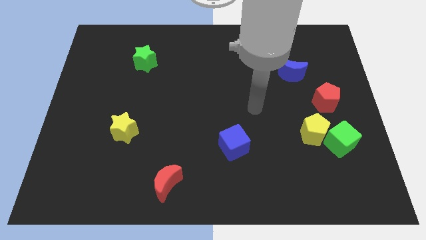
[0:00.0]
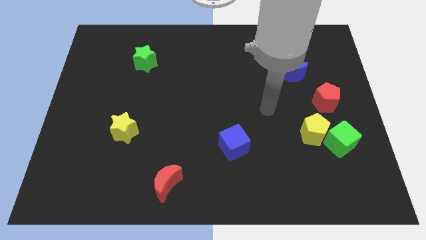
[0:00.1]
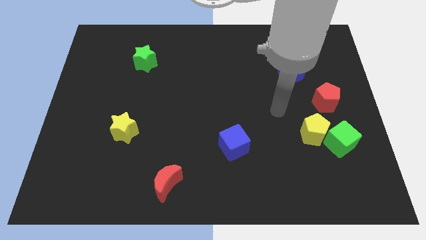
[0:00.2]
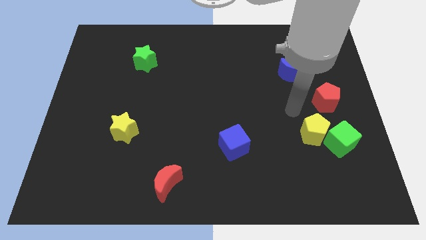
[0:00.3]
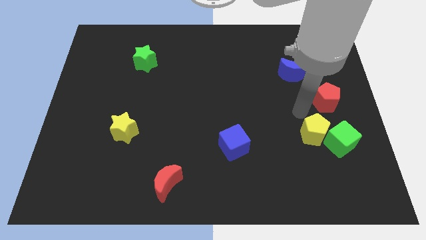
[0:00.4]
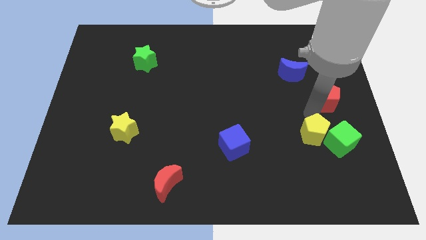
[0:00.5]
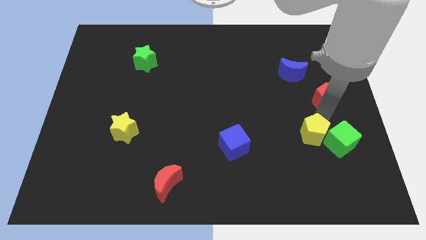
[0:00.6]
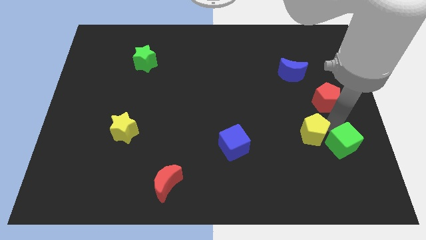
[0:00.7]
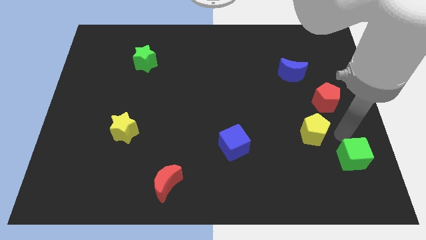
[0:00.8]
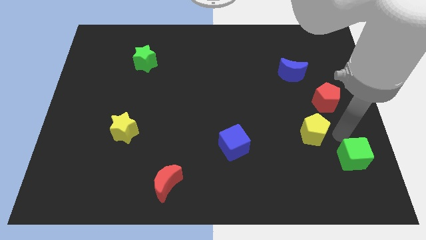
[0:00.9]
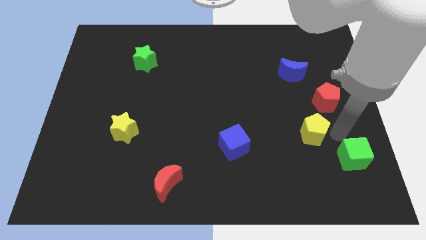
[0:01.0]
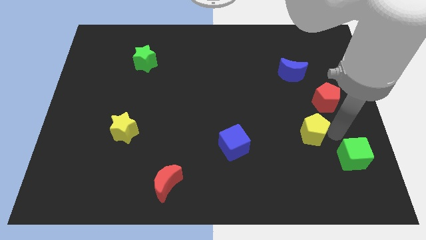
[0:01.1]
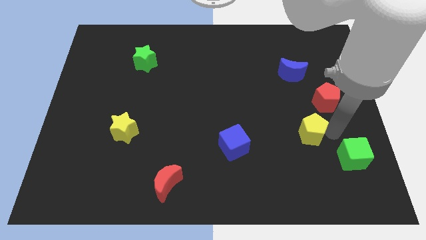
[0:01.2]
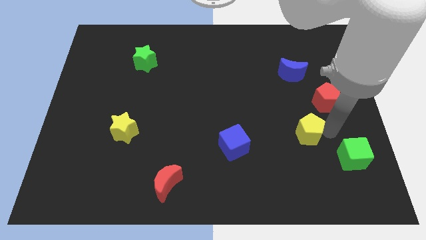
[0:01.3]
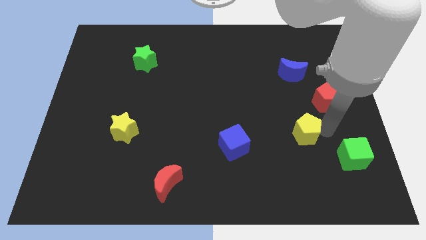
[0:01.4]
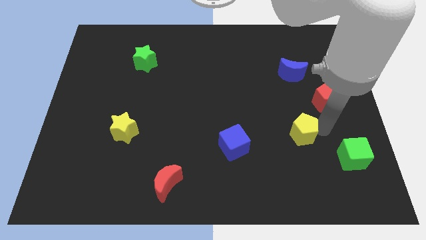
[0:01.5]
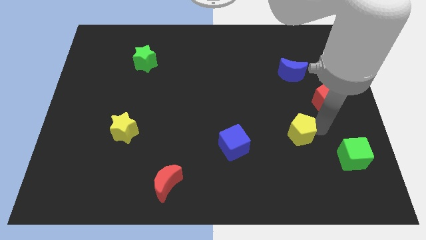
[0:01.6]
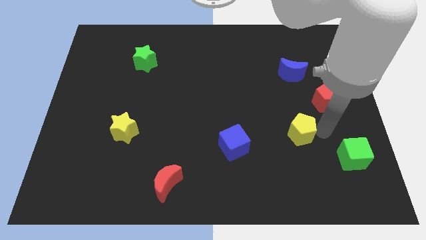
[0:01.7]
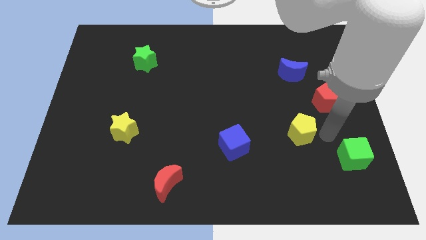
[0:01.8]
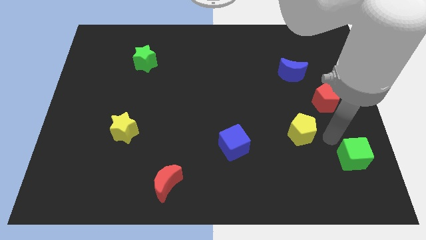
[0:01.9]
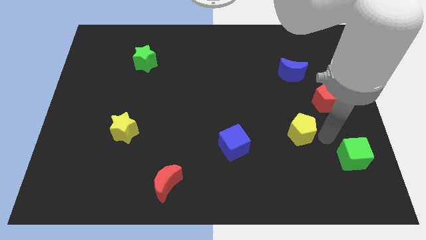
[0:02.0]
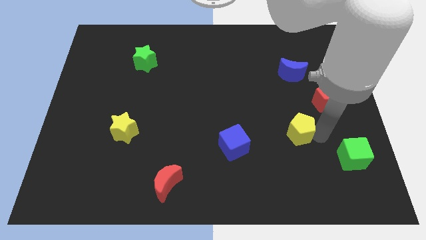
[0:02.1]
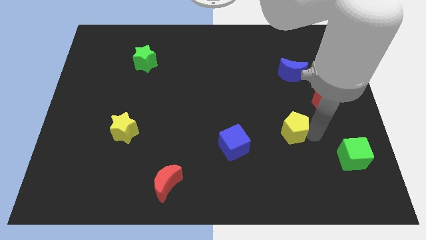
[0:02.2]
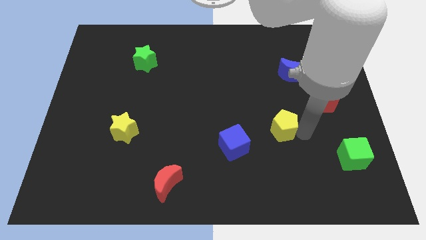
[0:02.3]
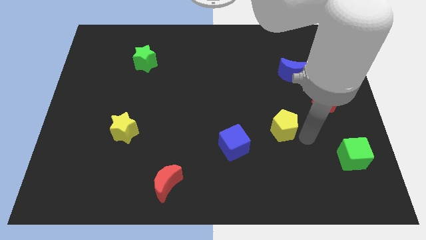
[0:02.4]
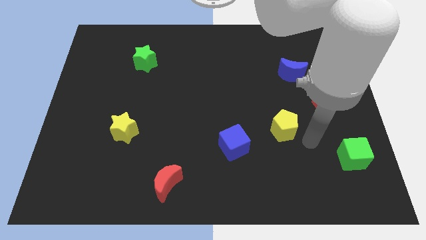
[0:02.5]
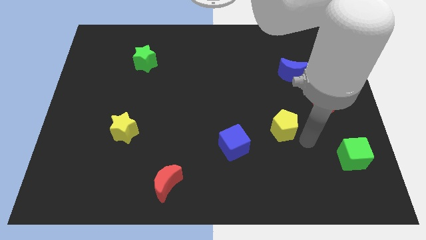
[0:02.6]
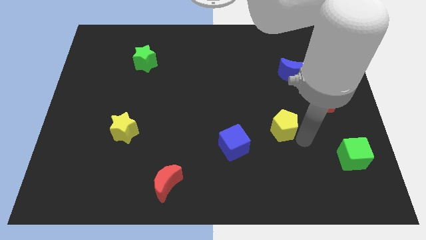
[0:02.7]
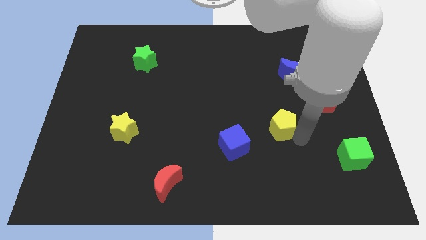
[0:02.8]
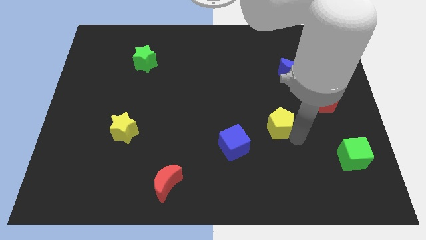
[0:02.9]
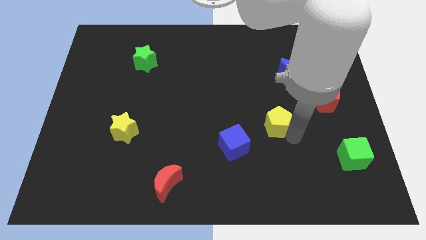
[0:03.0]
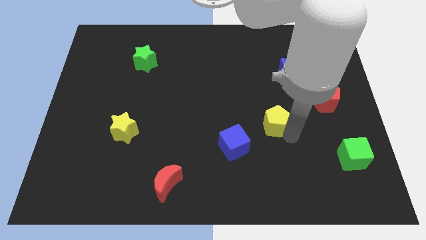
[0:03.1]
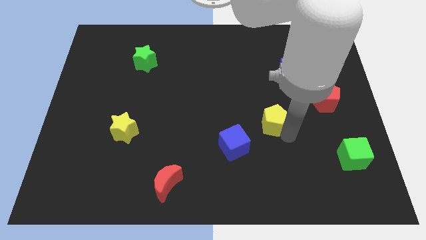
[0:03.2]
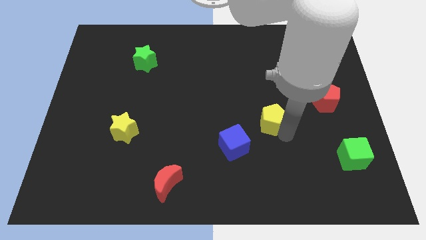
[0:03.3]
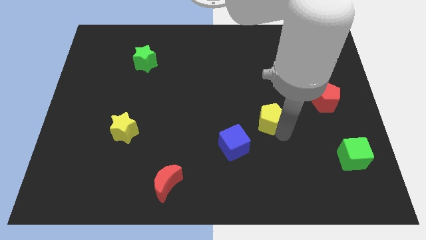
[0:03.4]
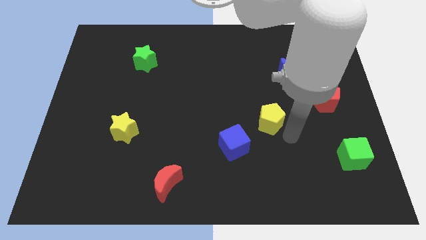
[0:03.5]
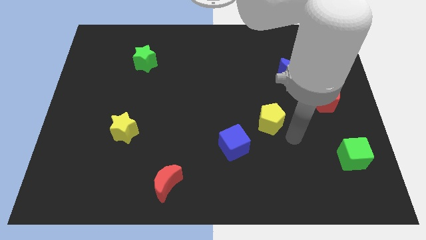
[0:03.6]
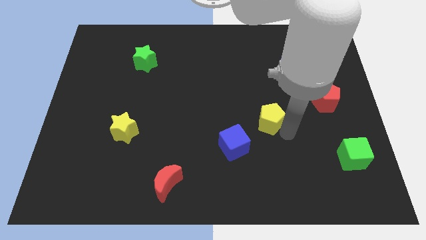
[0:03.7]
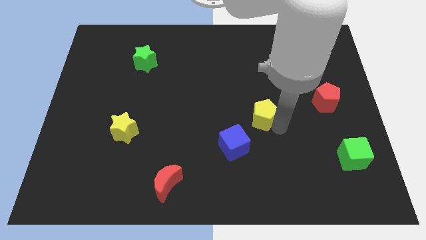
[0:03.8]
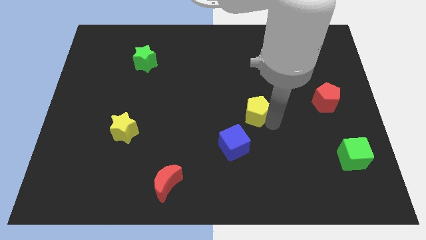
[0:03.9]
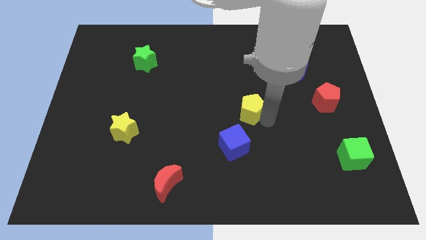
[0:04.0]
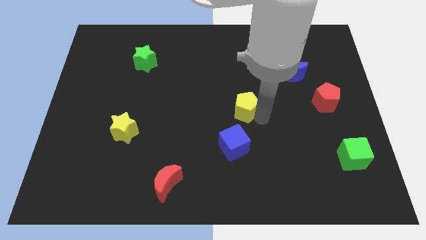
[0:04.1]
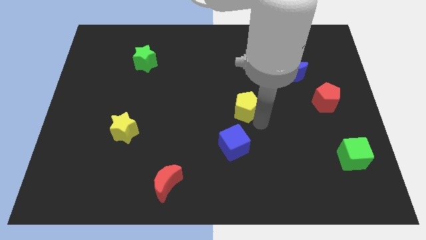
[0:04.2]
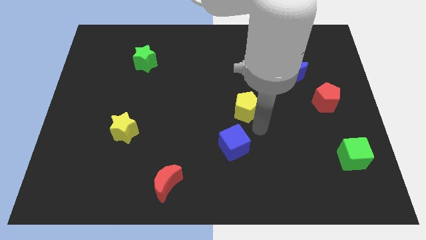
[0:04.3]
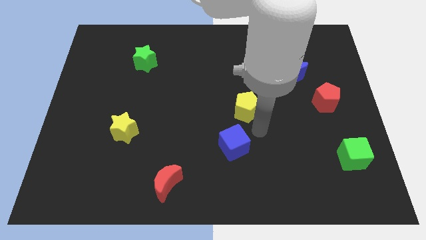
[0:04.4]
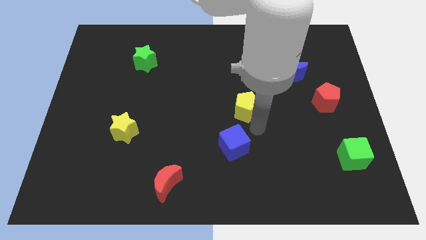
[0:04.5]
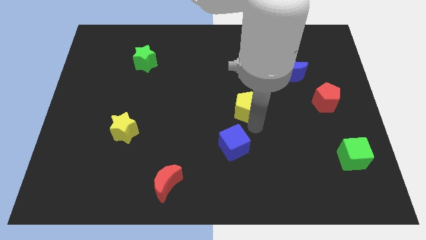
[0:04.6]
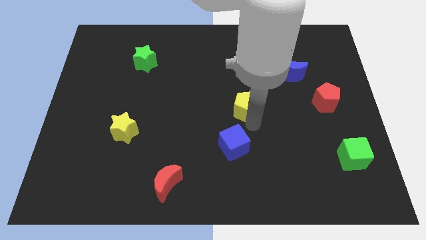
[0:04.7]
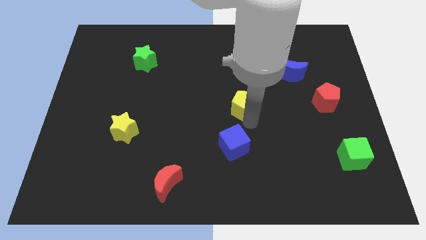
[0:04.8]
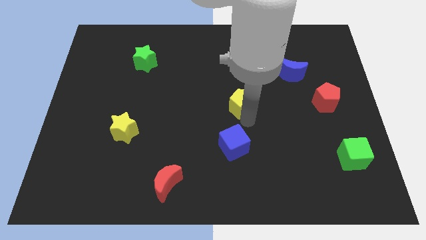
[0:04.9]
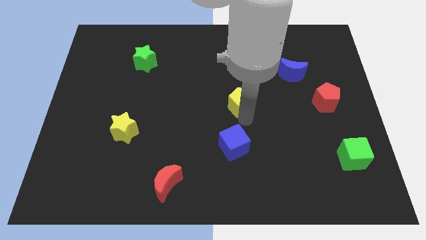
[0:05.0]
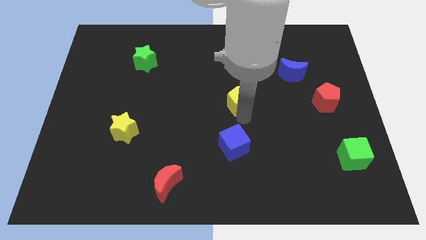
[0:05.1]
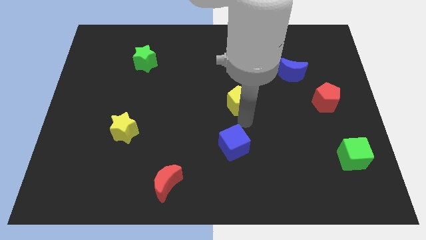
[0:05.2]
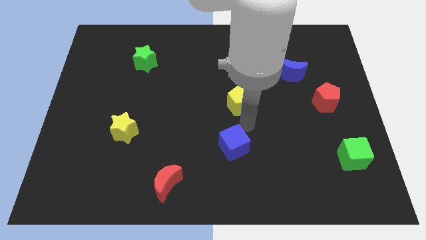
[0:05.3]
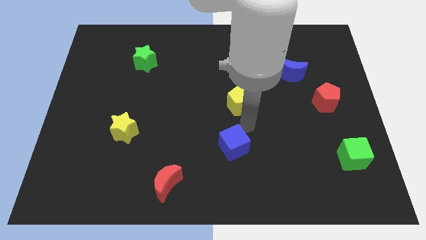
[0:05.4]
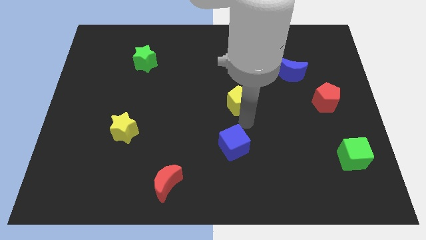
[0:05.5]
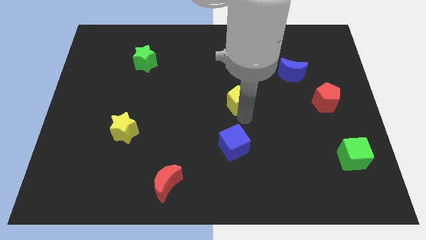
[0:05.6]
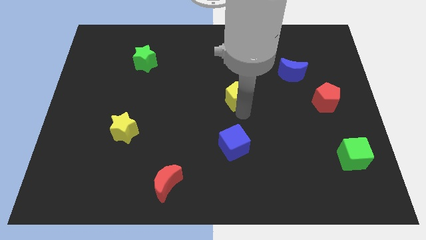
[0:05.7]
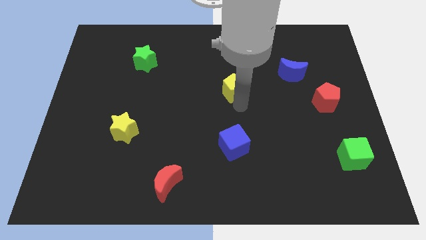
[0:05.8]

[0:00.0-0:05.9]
slide the yellow pentagon diagonally up and to the left

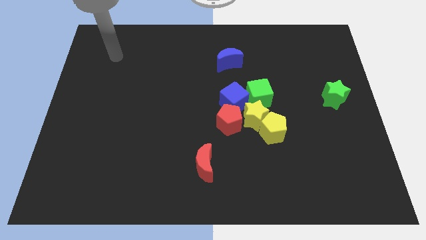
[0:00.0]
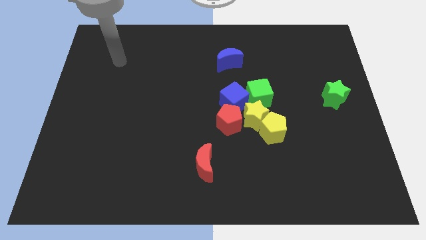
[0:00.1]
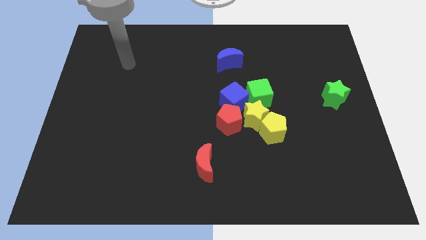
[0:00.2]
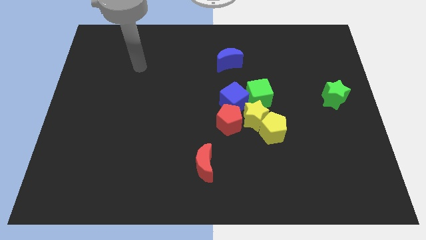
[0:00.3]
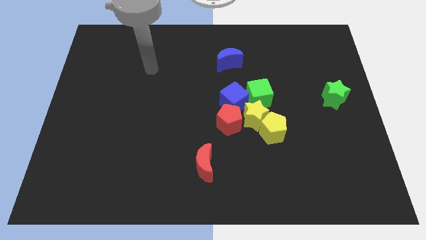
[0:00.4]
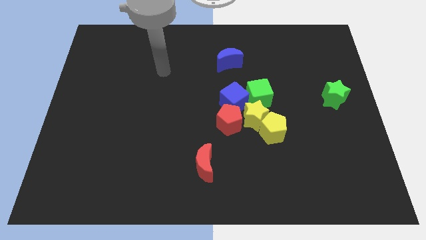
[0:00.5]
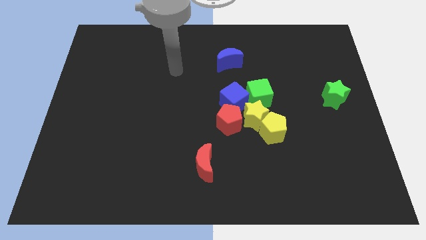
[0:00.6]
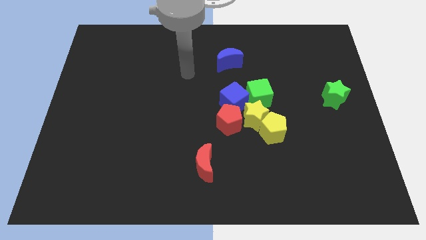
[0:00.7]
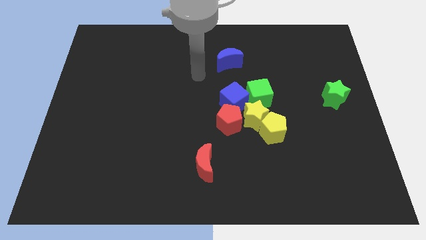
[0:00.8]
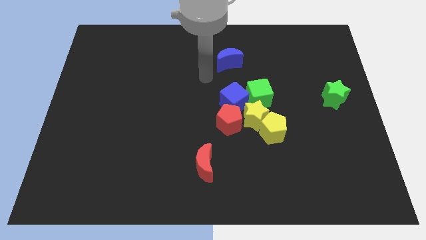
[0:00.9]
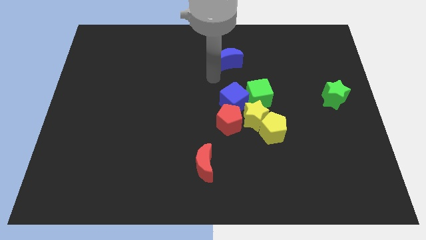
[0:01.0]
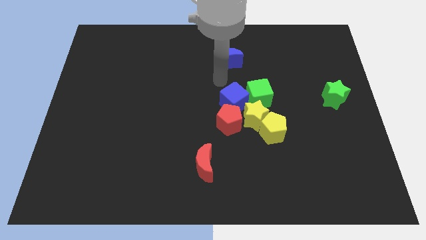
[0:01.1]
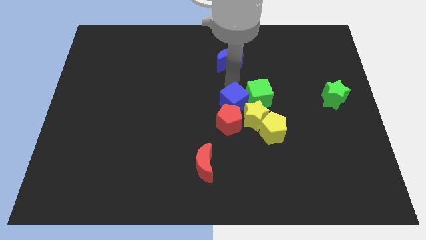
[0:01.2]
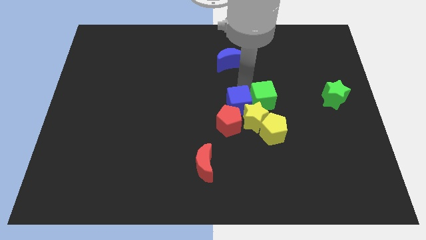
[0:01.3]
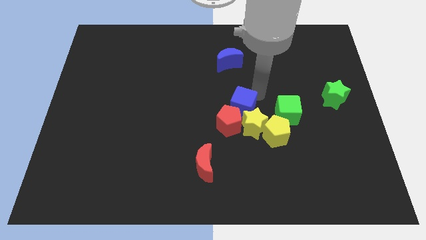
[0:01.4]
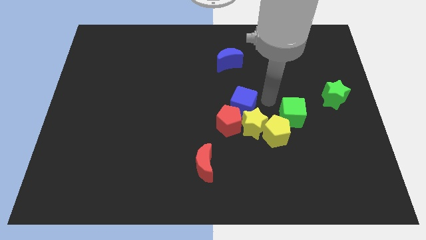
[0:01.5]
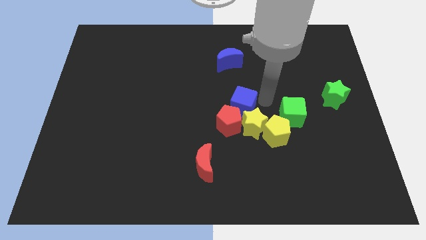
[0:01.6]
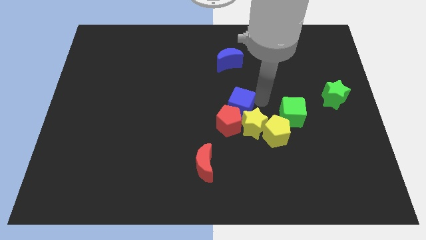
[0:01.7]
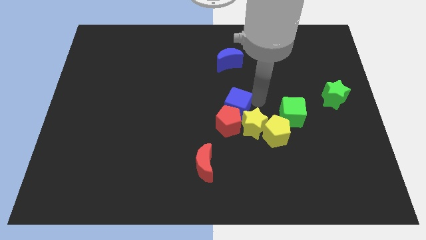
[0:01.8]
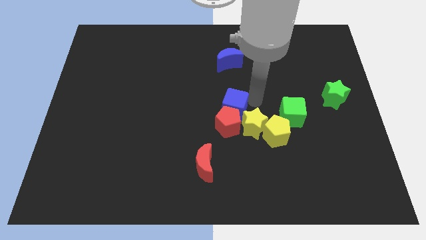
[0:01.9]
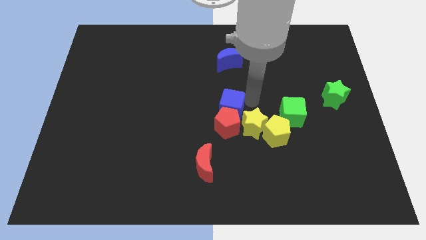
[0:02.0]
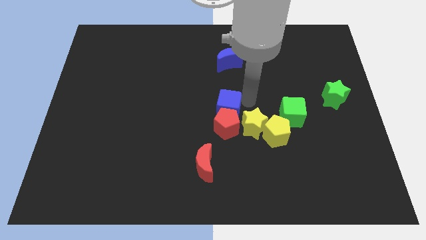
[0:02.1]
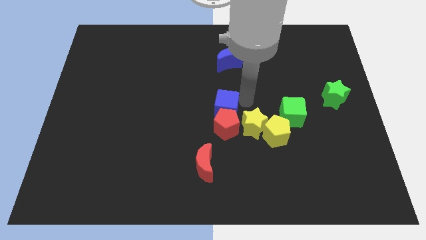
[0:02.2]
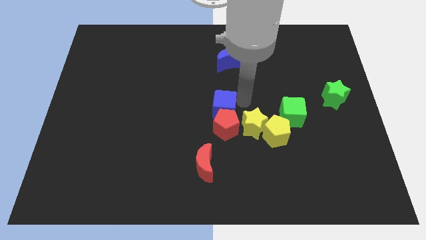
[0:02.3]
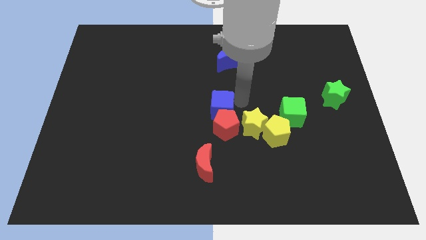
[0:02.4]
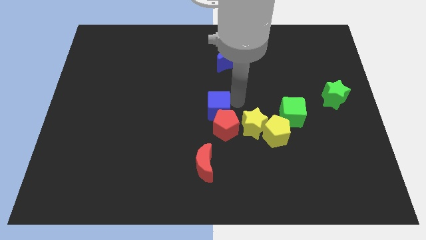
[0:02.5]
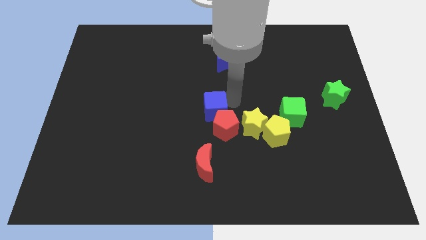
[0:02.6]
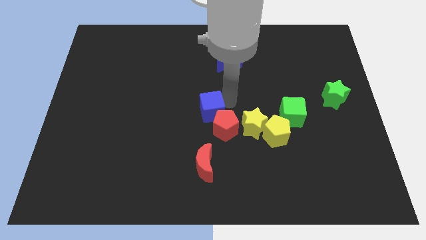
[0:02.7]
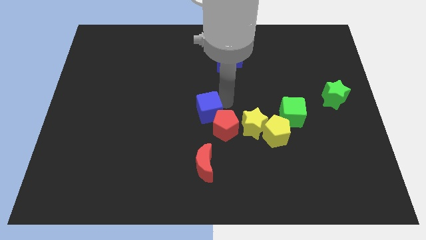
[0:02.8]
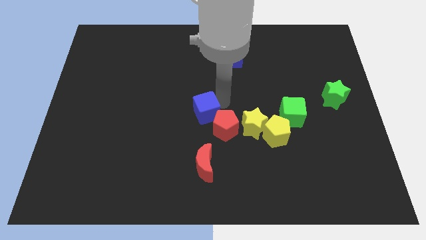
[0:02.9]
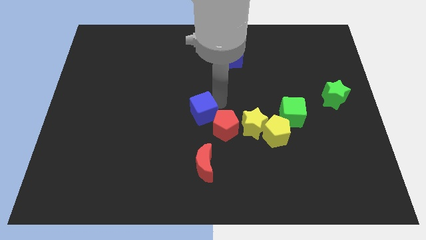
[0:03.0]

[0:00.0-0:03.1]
slide the blue cube diagonally downwards and left a little
